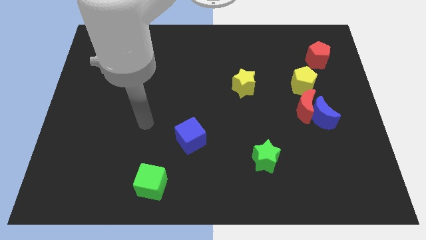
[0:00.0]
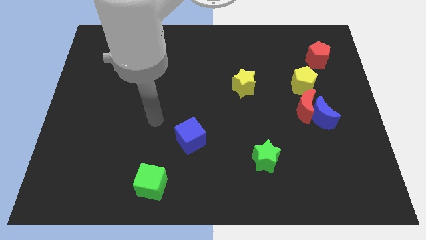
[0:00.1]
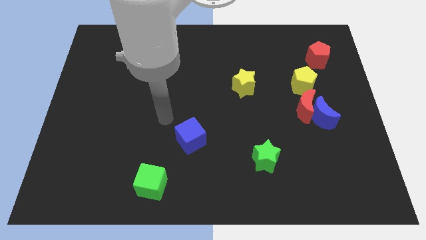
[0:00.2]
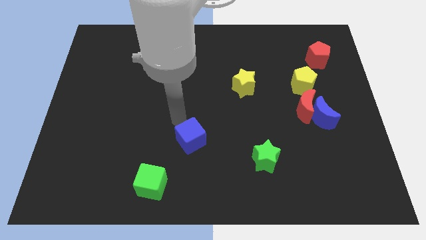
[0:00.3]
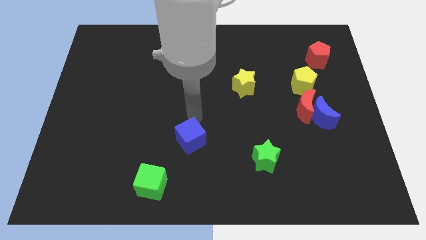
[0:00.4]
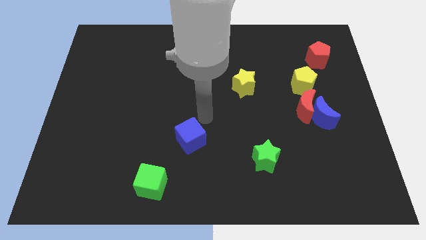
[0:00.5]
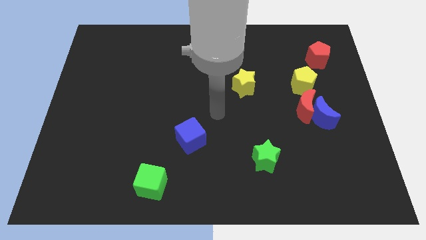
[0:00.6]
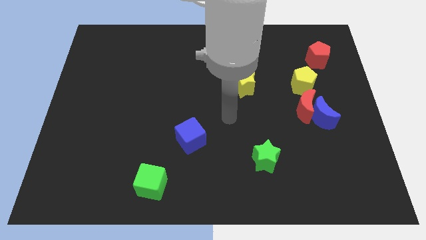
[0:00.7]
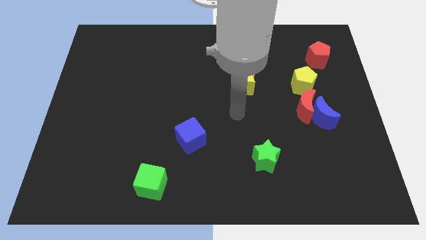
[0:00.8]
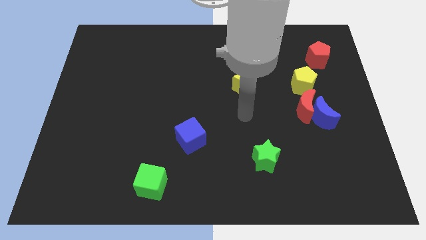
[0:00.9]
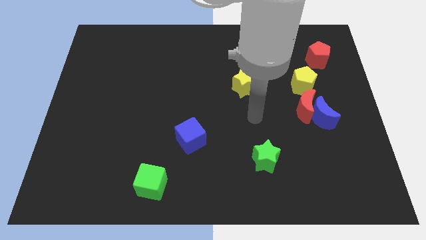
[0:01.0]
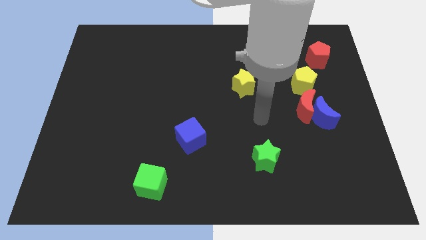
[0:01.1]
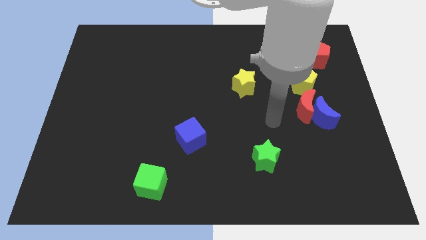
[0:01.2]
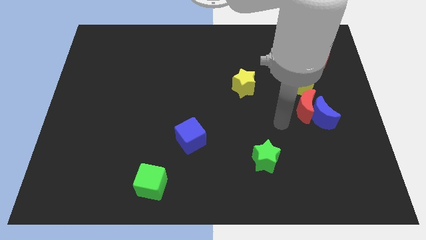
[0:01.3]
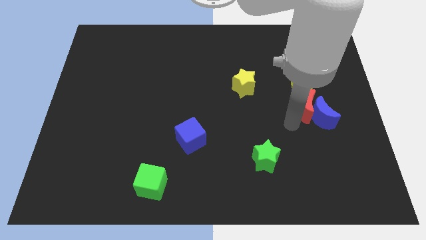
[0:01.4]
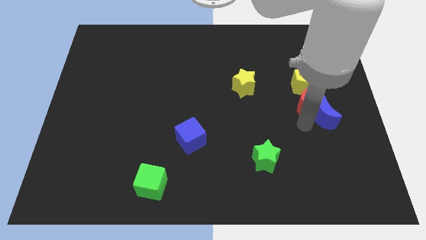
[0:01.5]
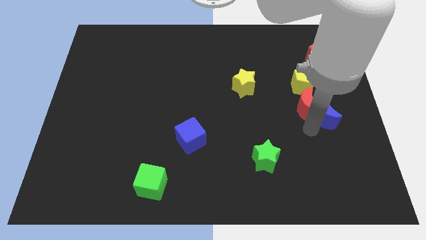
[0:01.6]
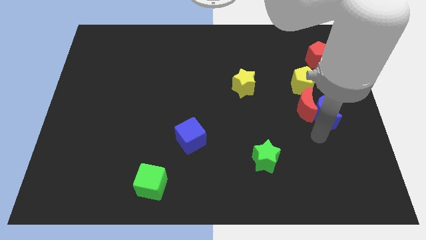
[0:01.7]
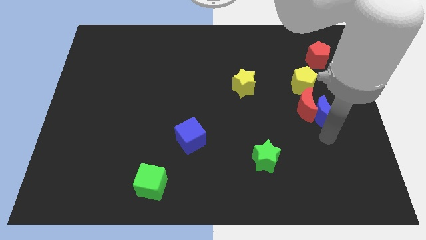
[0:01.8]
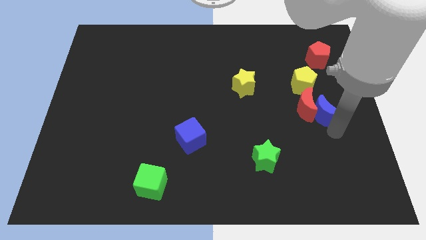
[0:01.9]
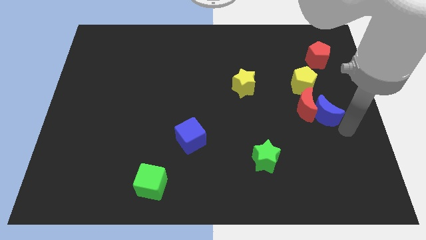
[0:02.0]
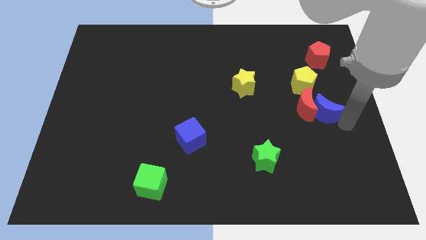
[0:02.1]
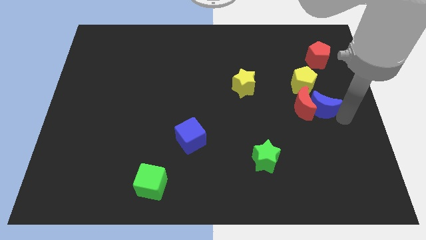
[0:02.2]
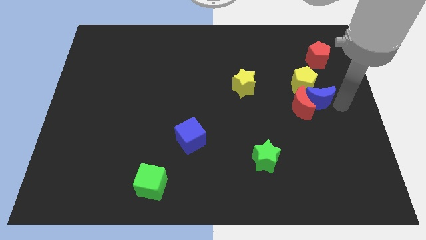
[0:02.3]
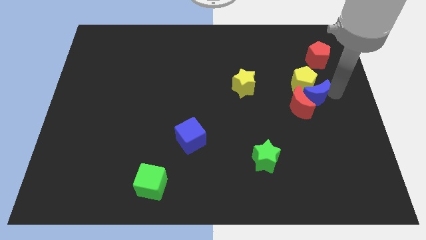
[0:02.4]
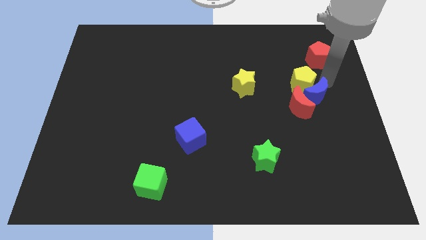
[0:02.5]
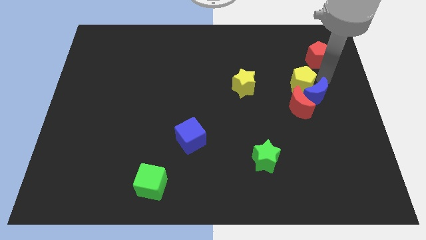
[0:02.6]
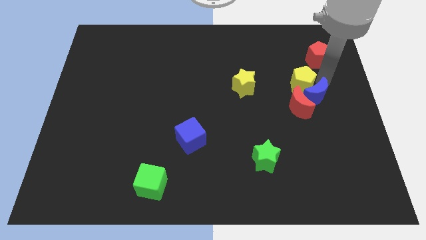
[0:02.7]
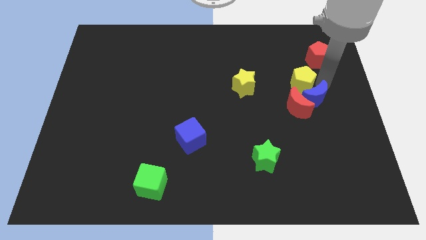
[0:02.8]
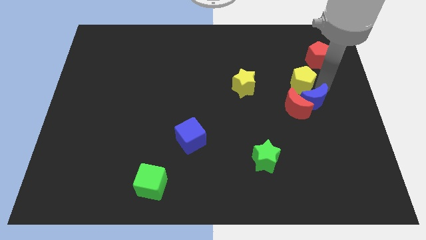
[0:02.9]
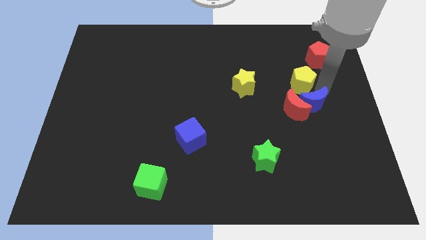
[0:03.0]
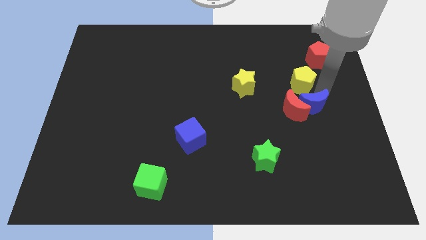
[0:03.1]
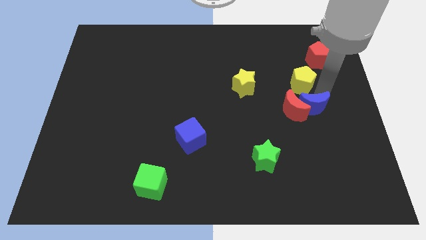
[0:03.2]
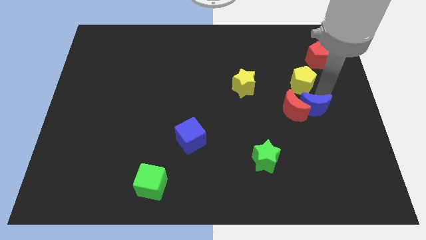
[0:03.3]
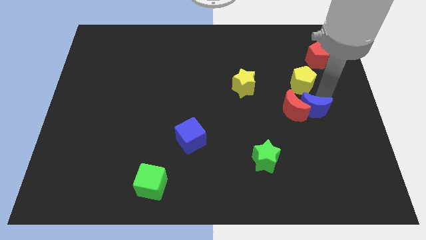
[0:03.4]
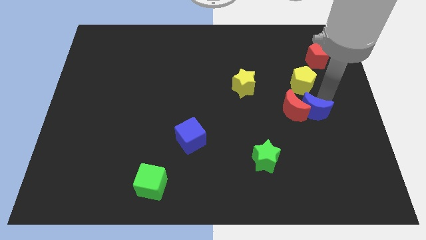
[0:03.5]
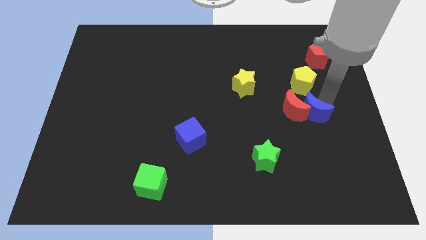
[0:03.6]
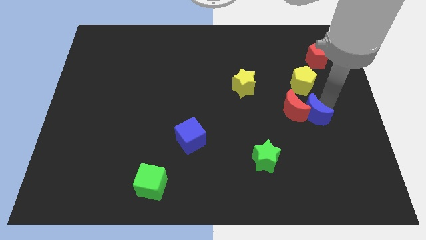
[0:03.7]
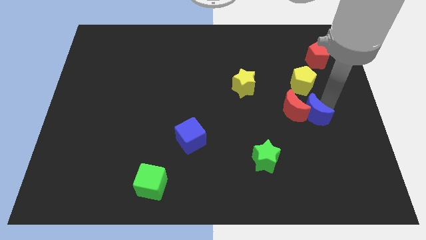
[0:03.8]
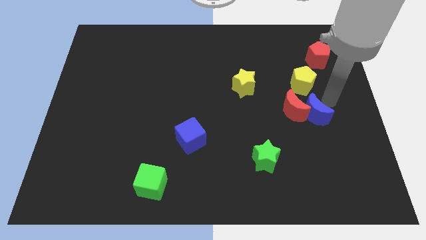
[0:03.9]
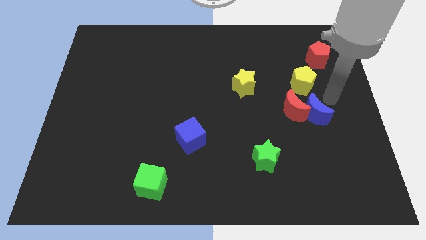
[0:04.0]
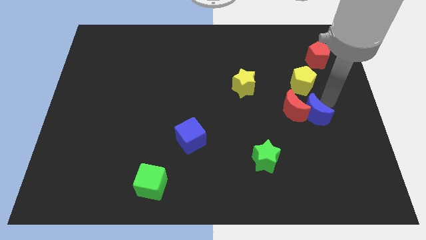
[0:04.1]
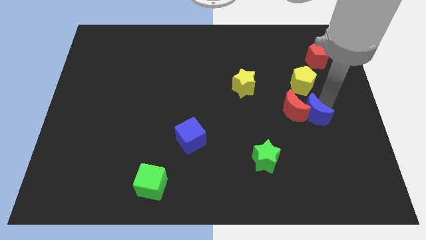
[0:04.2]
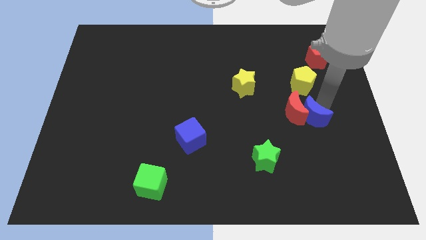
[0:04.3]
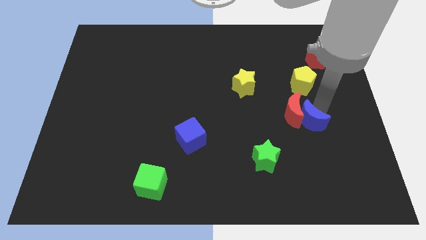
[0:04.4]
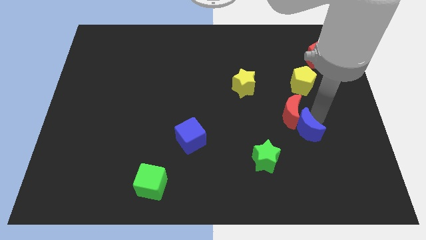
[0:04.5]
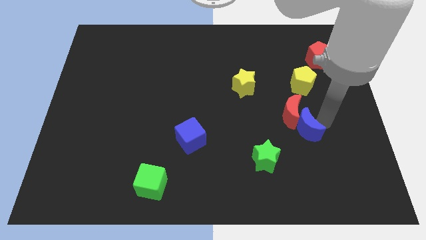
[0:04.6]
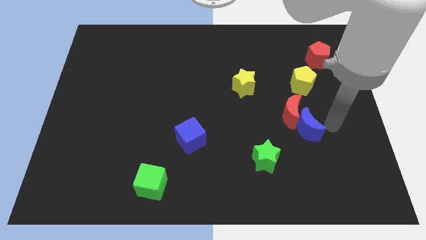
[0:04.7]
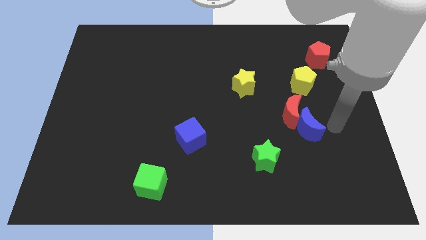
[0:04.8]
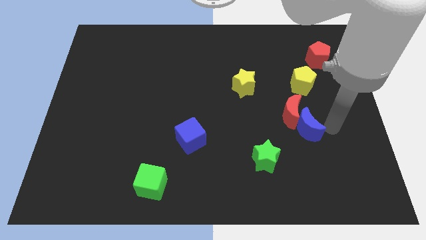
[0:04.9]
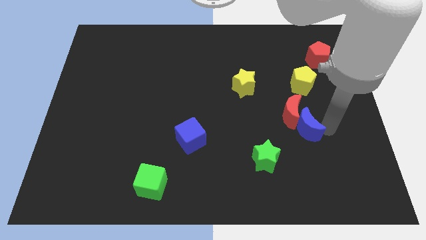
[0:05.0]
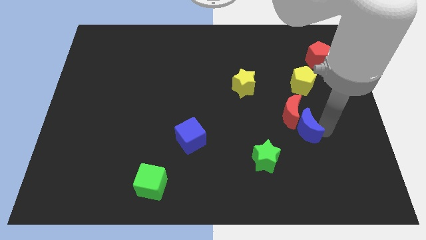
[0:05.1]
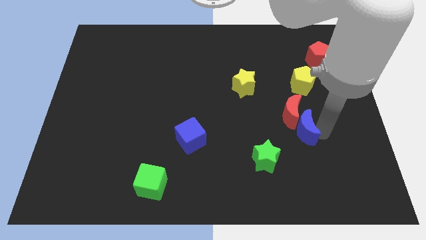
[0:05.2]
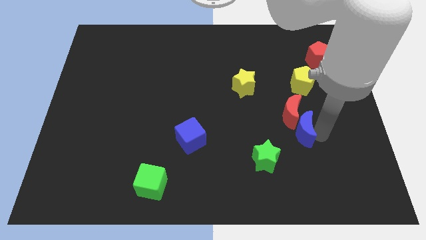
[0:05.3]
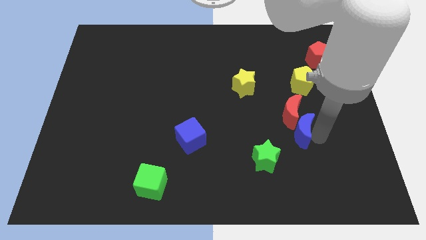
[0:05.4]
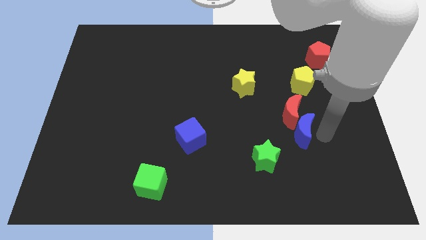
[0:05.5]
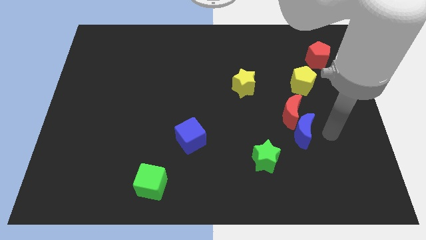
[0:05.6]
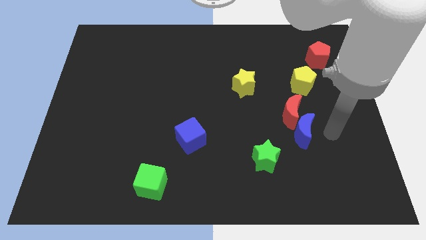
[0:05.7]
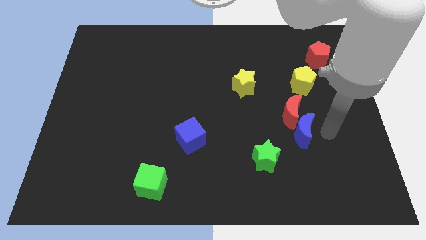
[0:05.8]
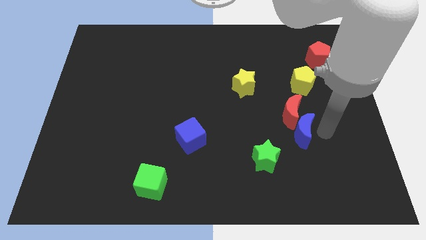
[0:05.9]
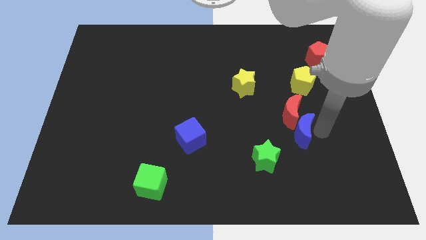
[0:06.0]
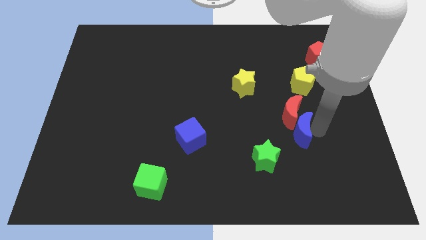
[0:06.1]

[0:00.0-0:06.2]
put the blue moon diagonally down and to the left of the red moon

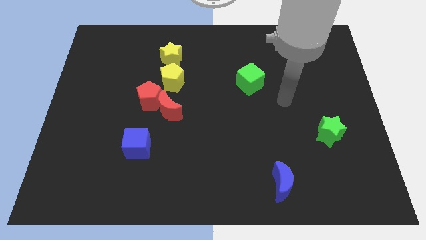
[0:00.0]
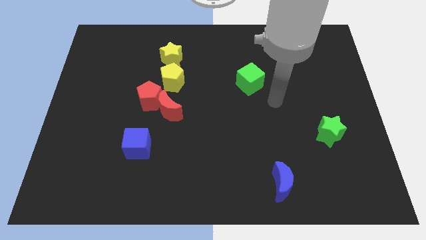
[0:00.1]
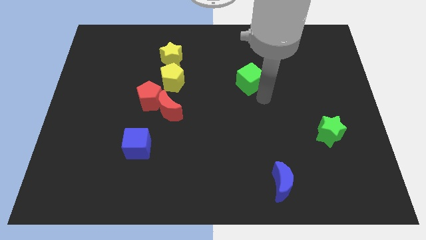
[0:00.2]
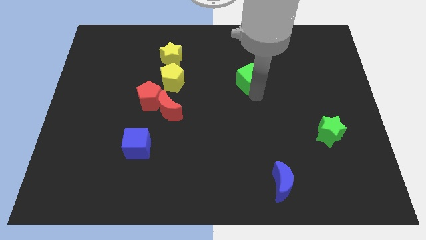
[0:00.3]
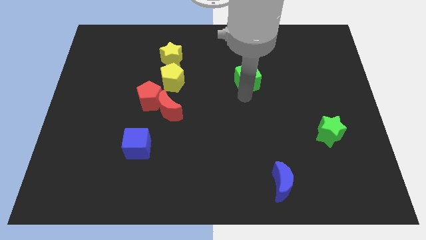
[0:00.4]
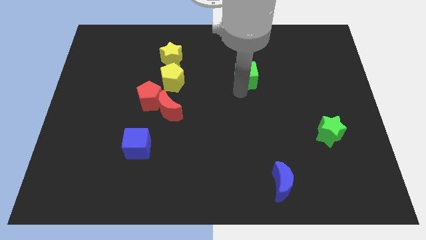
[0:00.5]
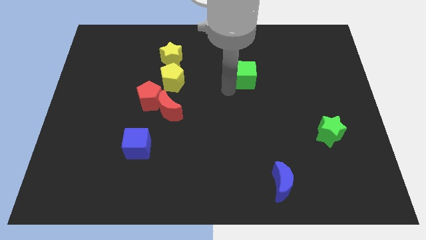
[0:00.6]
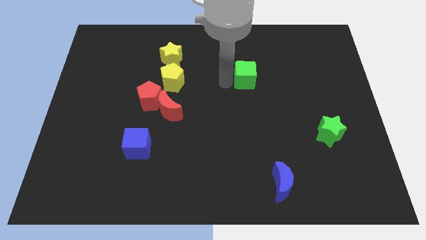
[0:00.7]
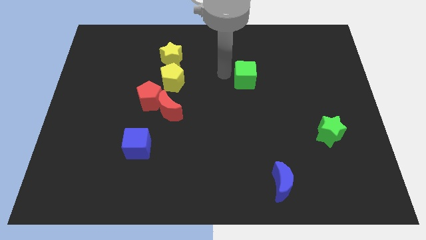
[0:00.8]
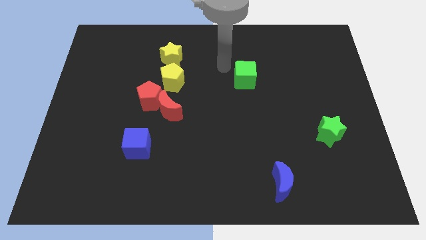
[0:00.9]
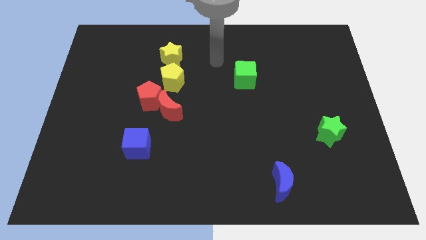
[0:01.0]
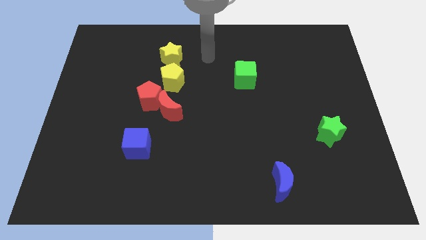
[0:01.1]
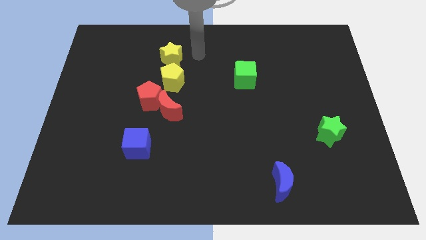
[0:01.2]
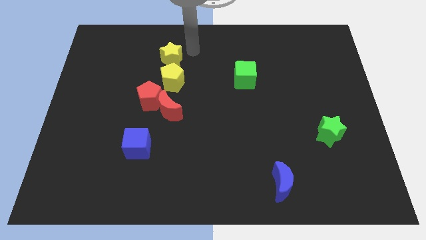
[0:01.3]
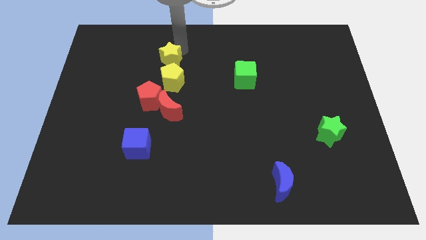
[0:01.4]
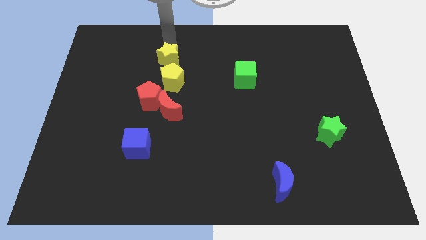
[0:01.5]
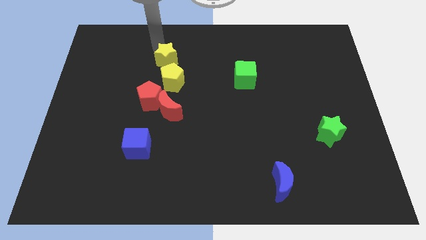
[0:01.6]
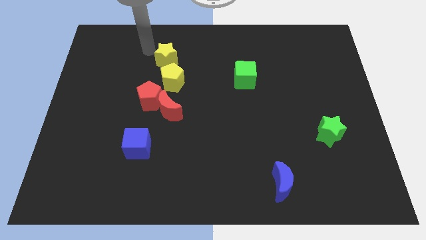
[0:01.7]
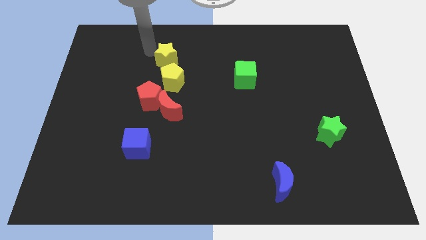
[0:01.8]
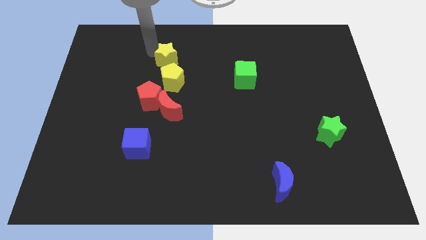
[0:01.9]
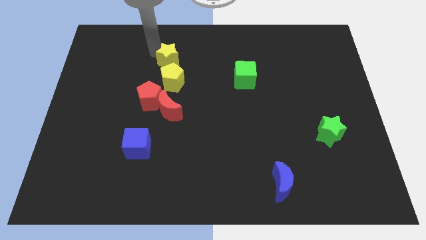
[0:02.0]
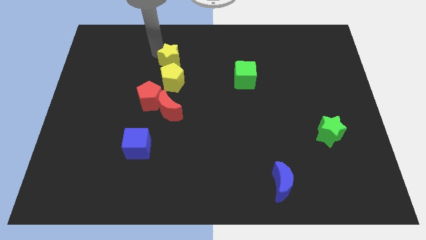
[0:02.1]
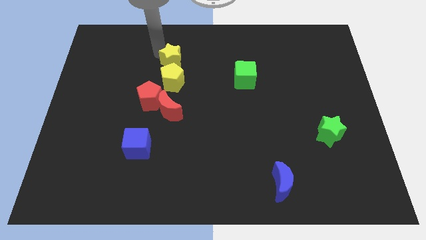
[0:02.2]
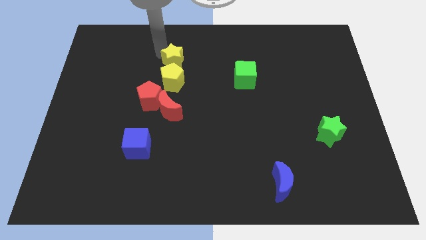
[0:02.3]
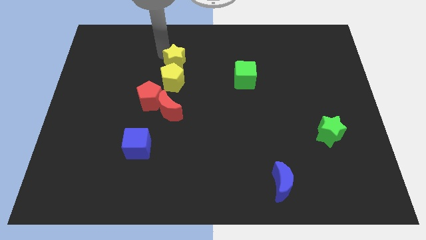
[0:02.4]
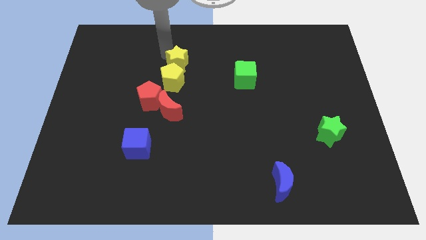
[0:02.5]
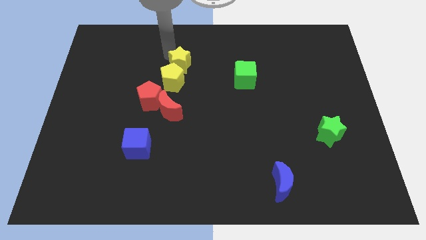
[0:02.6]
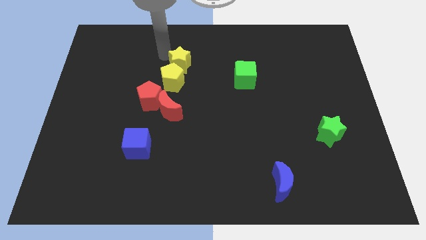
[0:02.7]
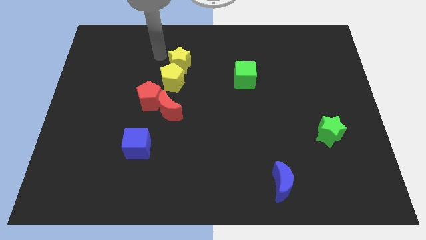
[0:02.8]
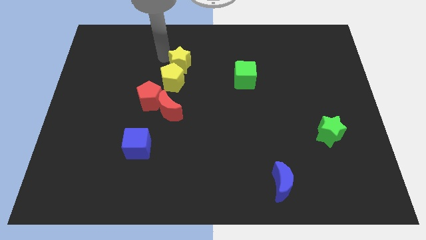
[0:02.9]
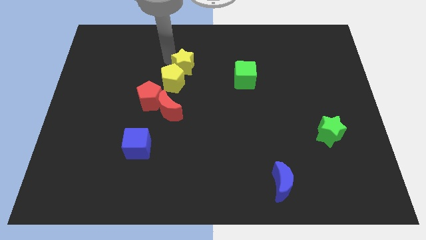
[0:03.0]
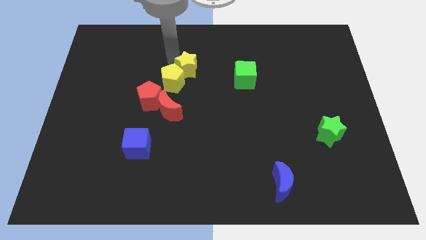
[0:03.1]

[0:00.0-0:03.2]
move the yellow star just right of the yellow pentagon
